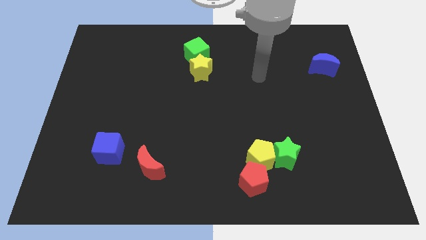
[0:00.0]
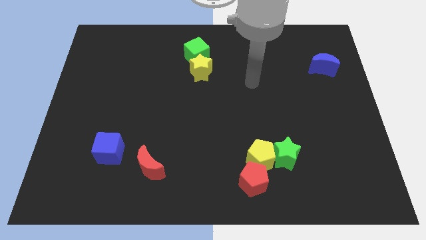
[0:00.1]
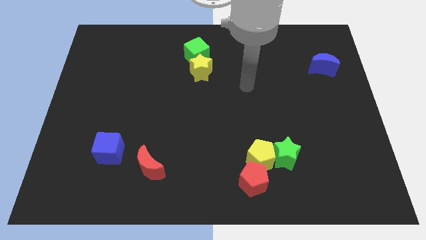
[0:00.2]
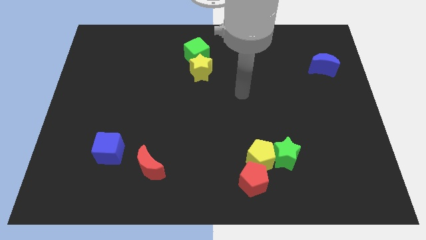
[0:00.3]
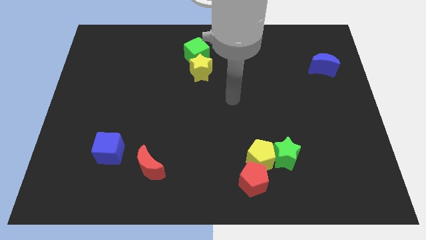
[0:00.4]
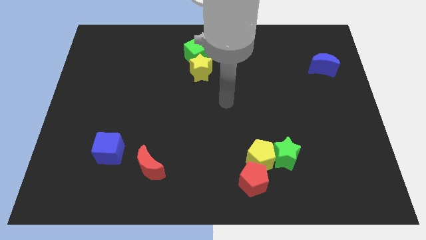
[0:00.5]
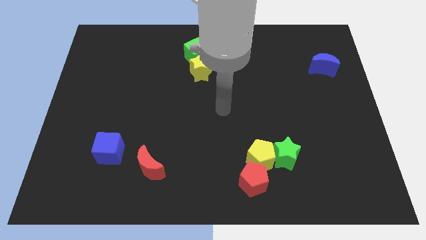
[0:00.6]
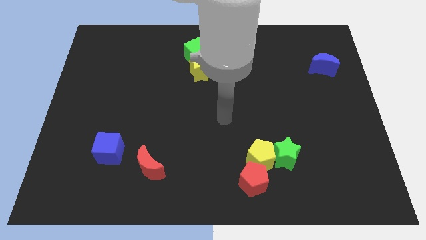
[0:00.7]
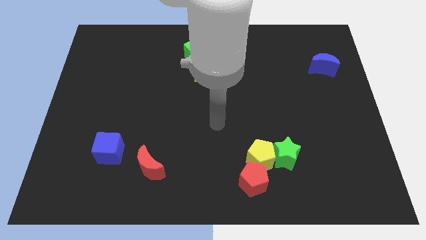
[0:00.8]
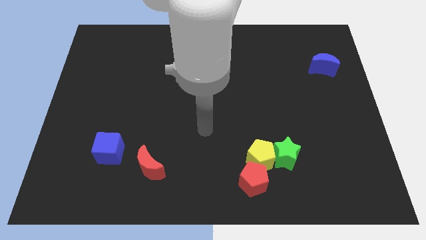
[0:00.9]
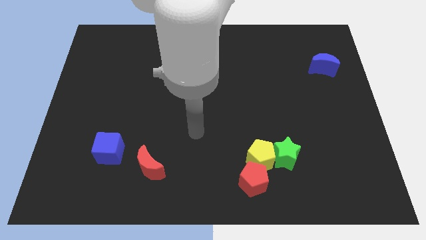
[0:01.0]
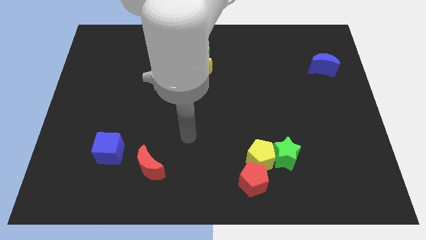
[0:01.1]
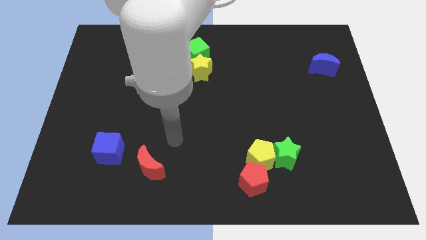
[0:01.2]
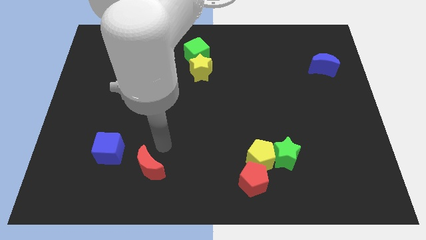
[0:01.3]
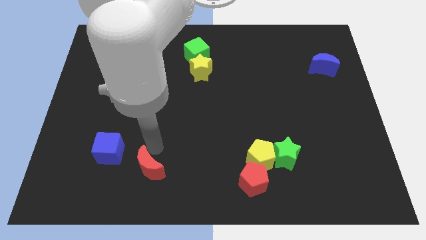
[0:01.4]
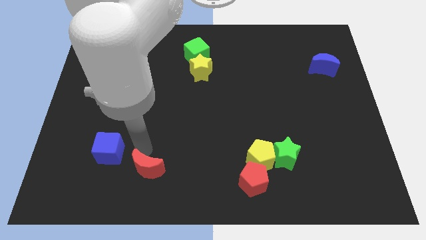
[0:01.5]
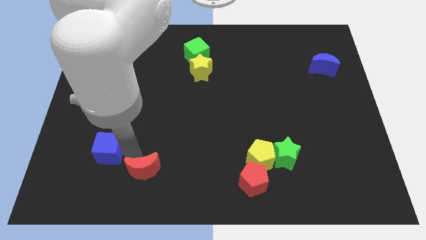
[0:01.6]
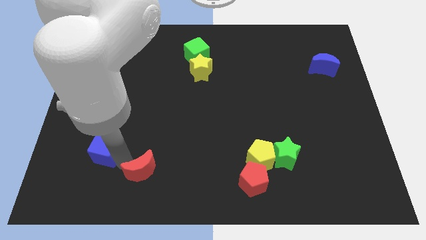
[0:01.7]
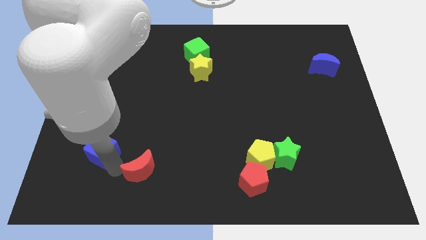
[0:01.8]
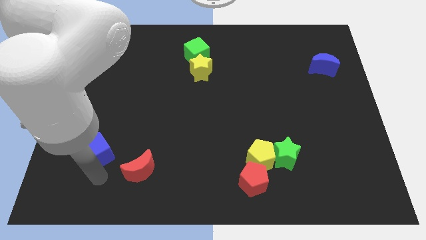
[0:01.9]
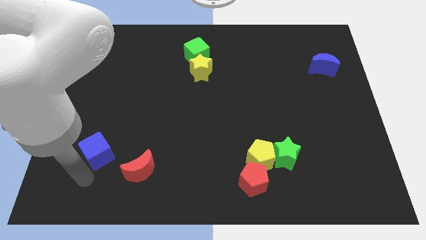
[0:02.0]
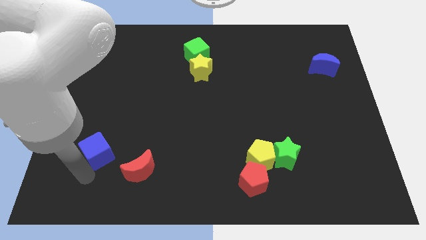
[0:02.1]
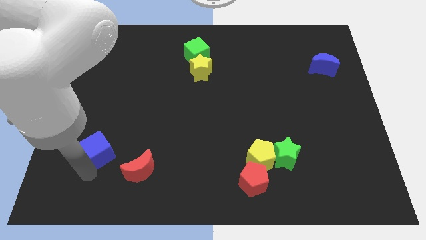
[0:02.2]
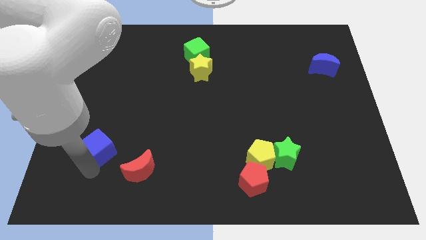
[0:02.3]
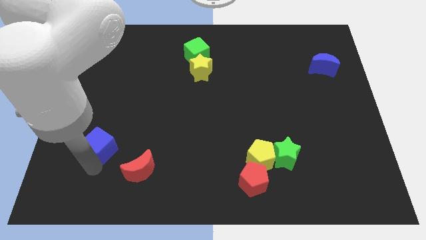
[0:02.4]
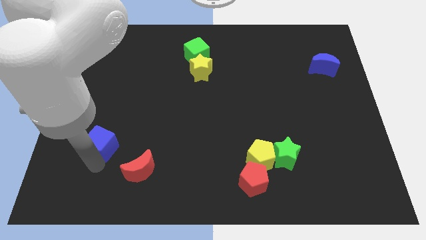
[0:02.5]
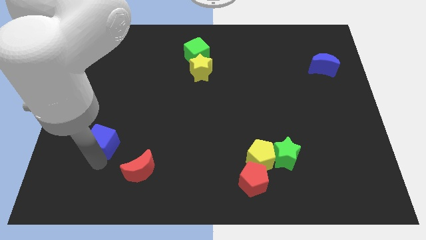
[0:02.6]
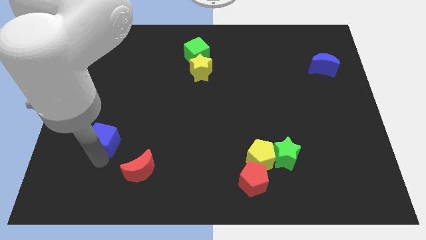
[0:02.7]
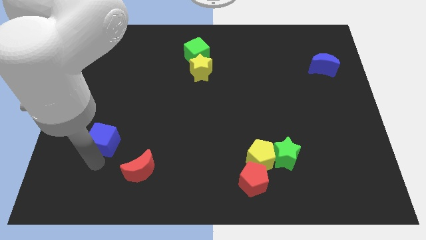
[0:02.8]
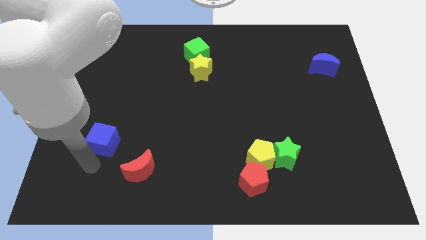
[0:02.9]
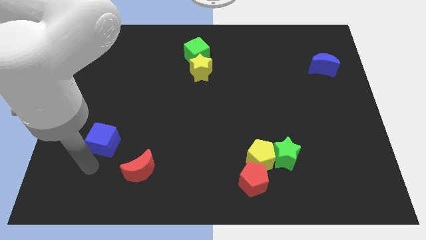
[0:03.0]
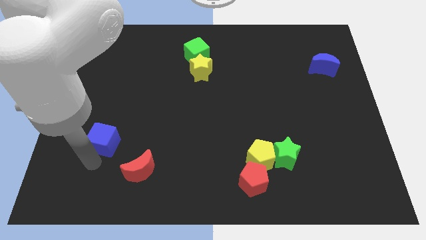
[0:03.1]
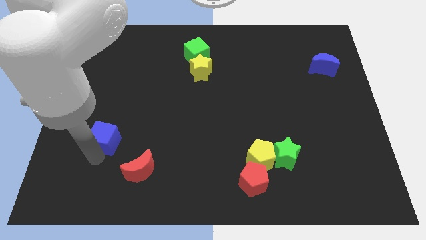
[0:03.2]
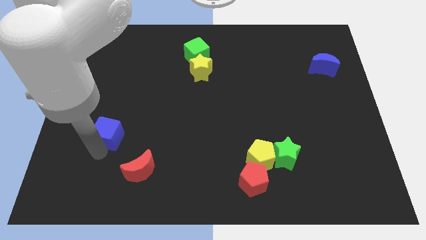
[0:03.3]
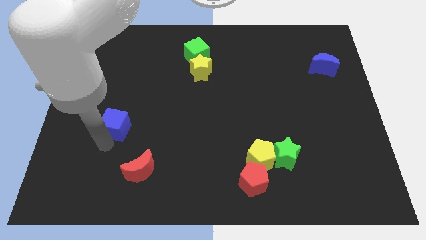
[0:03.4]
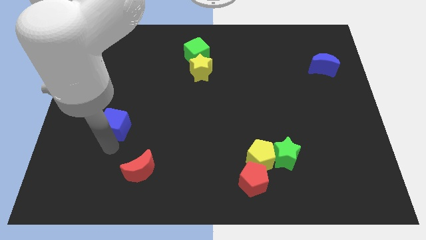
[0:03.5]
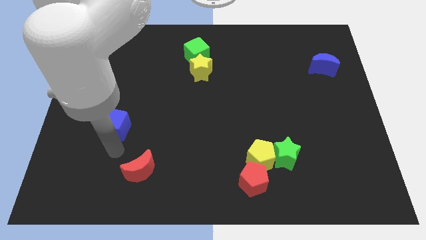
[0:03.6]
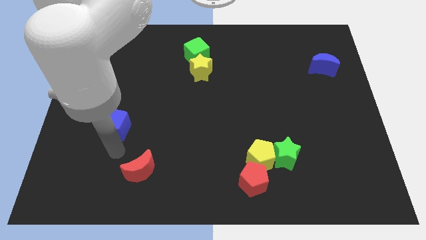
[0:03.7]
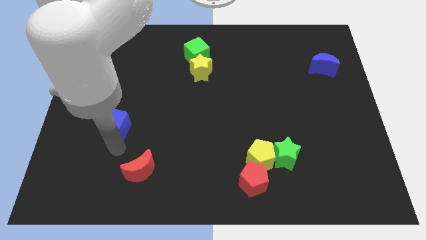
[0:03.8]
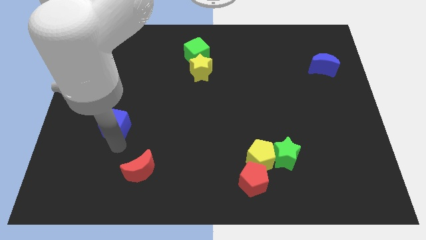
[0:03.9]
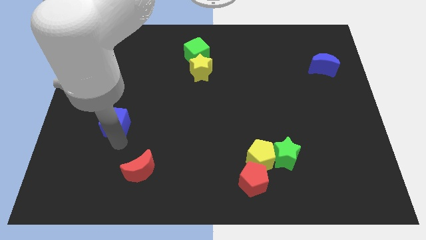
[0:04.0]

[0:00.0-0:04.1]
slide the blue cube upwards a little bit

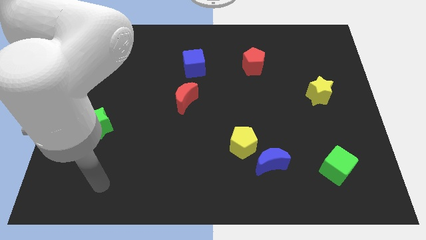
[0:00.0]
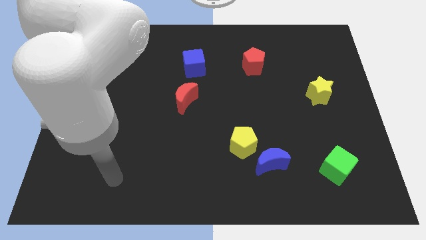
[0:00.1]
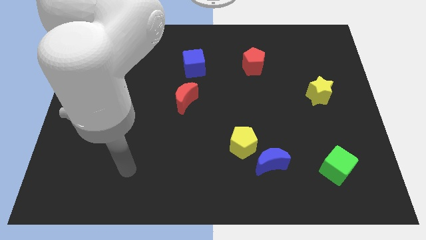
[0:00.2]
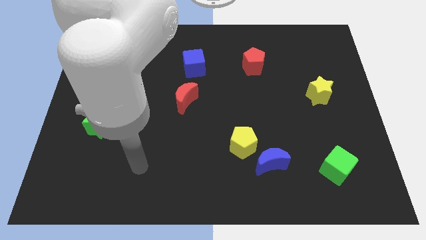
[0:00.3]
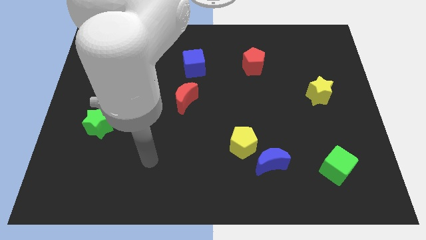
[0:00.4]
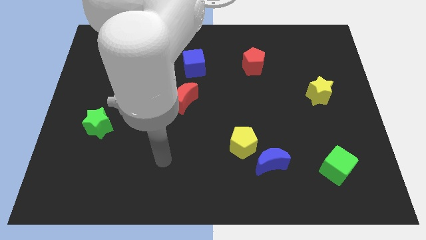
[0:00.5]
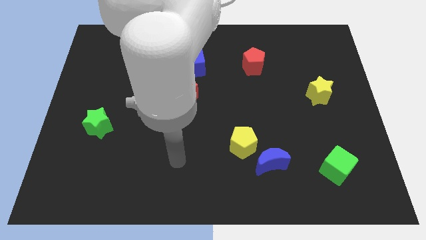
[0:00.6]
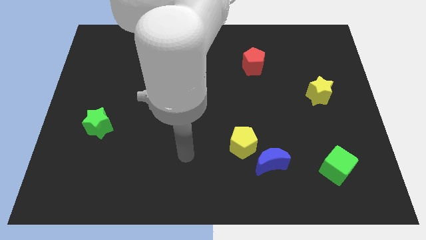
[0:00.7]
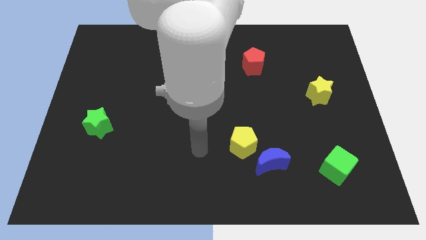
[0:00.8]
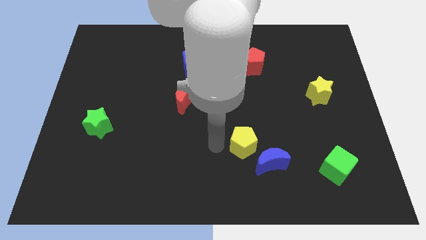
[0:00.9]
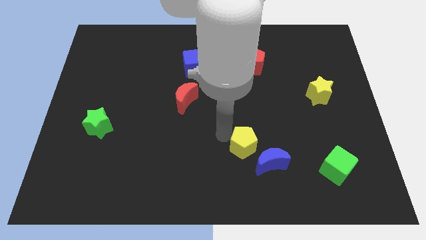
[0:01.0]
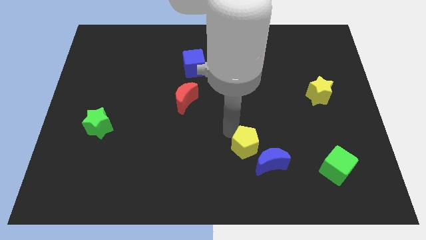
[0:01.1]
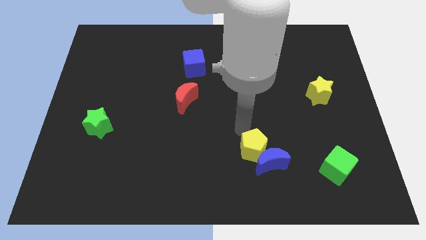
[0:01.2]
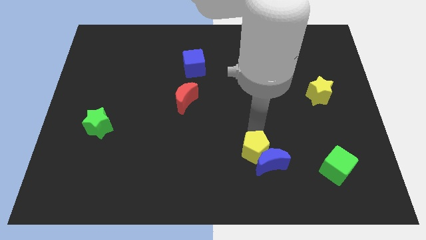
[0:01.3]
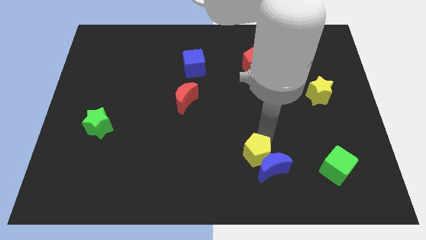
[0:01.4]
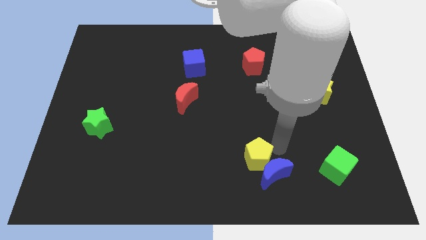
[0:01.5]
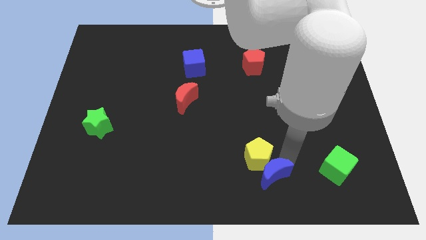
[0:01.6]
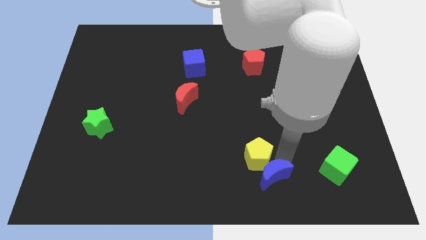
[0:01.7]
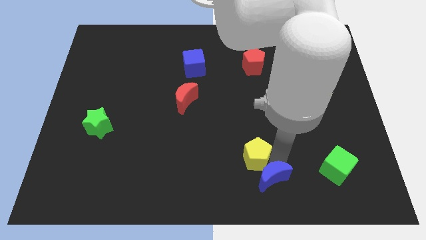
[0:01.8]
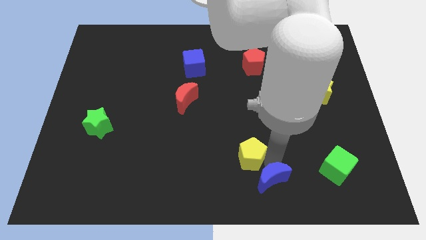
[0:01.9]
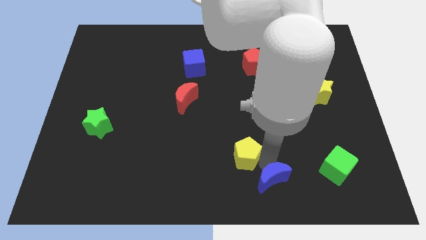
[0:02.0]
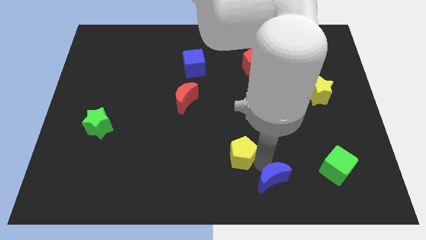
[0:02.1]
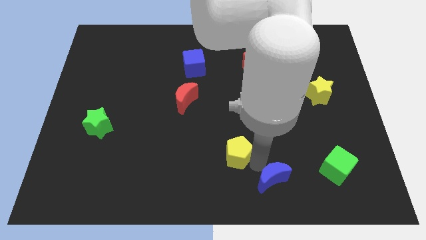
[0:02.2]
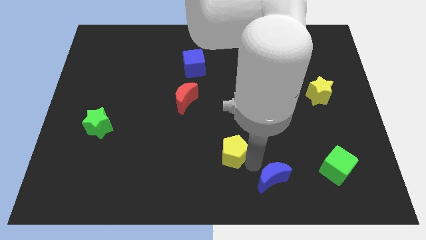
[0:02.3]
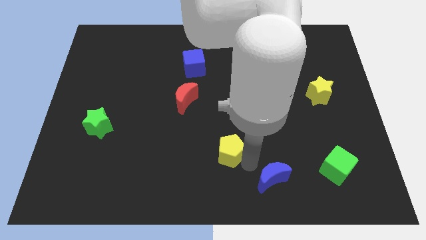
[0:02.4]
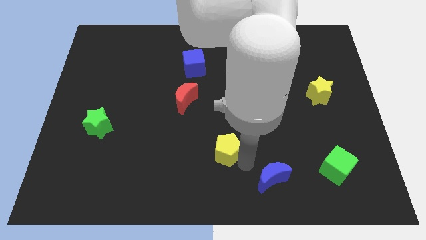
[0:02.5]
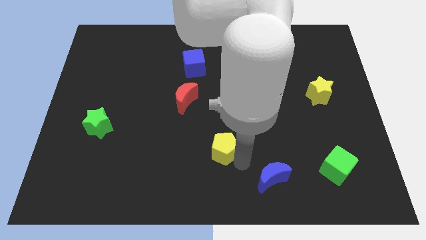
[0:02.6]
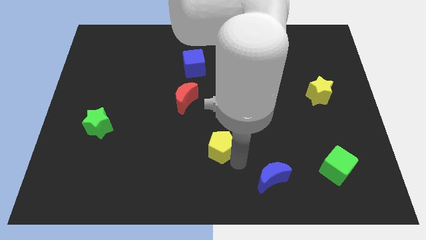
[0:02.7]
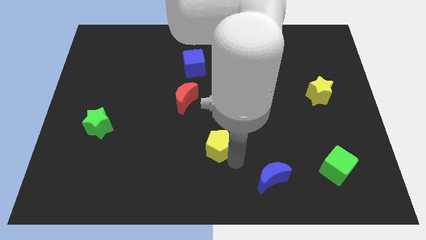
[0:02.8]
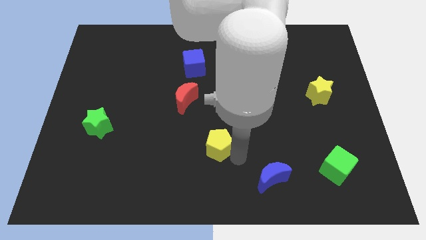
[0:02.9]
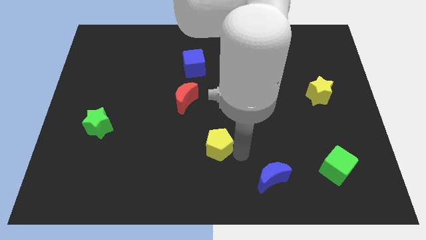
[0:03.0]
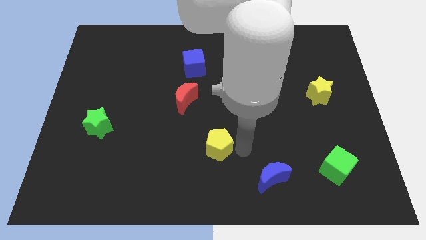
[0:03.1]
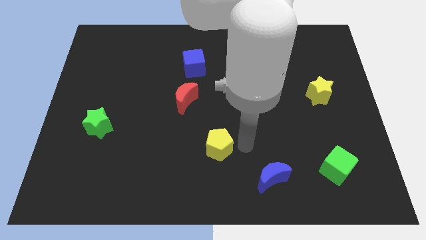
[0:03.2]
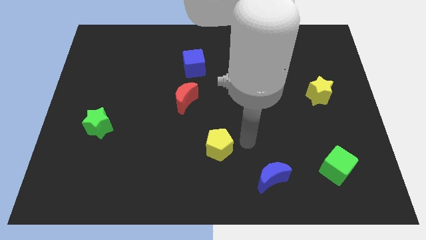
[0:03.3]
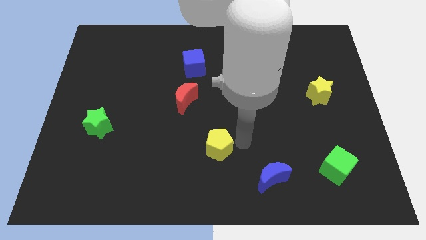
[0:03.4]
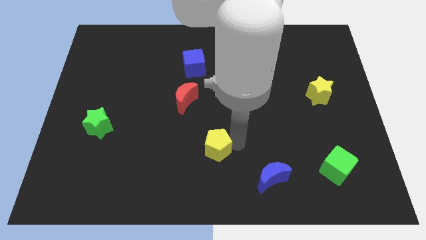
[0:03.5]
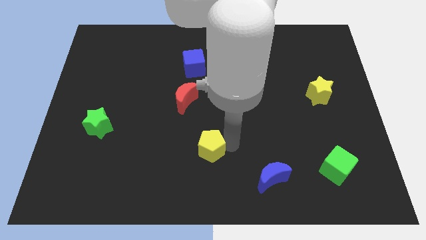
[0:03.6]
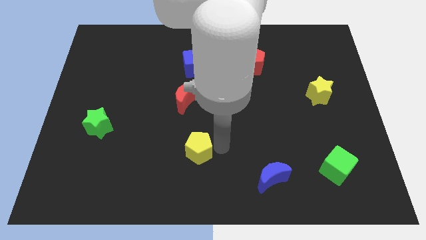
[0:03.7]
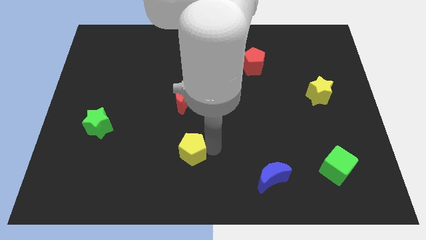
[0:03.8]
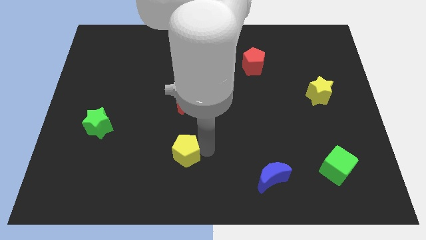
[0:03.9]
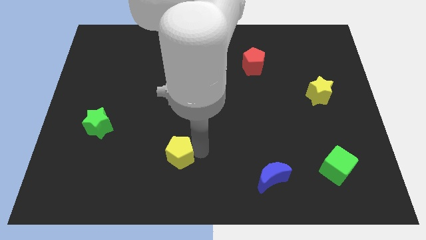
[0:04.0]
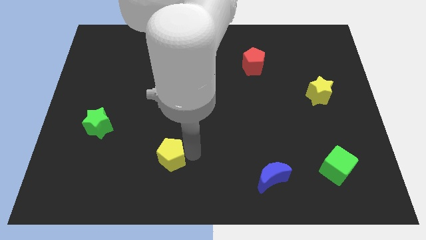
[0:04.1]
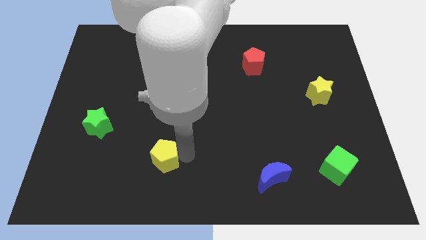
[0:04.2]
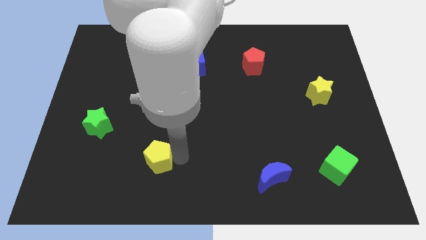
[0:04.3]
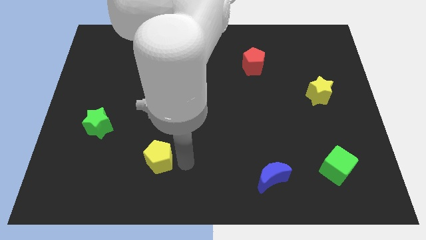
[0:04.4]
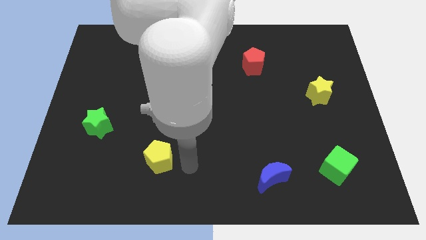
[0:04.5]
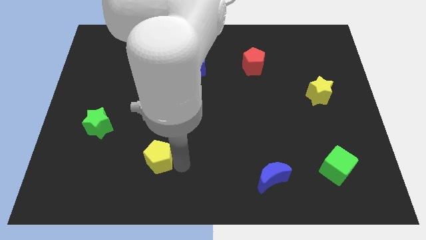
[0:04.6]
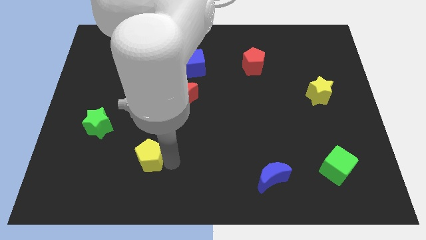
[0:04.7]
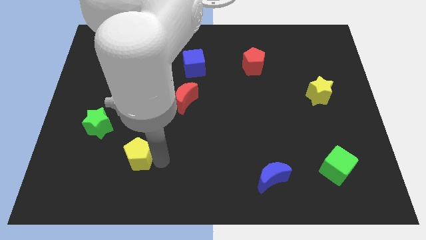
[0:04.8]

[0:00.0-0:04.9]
slide the yellow pentagon left
